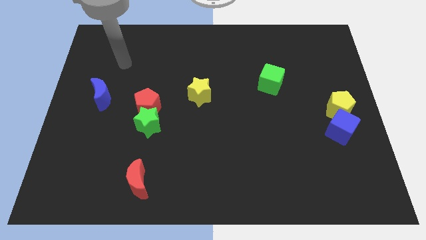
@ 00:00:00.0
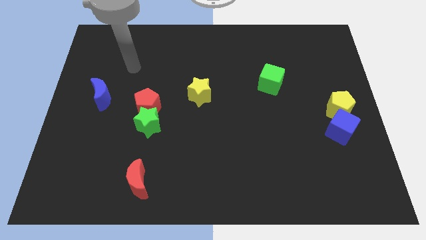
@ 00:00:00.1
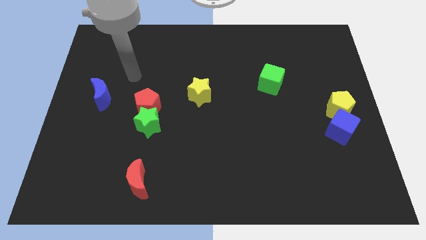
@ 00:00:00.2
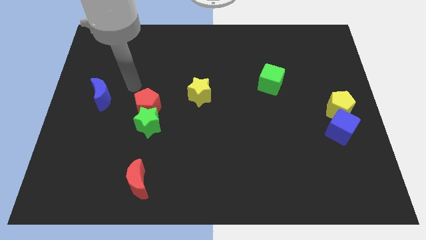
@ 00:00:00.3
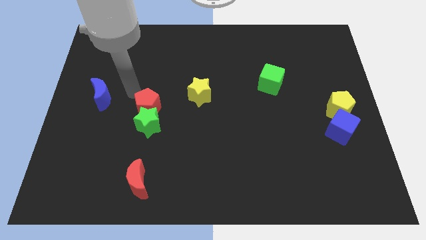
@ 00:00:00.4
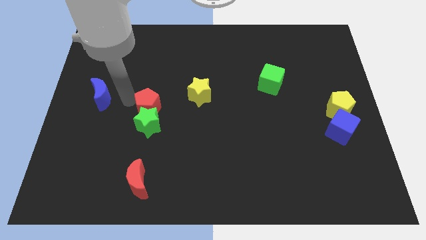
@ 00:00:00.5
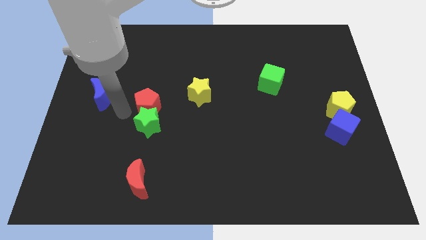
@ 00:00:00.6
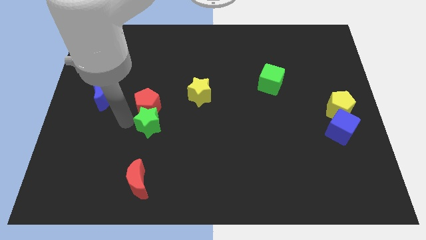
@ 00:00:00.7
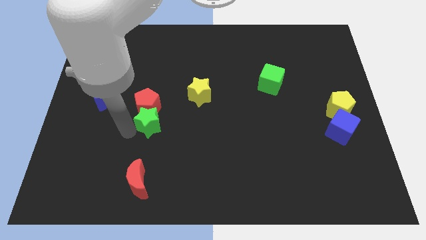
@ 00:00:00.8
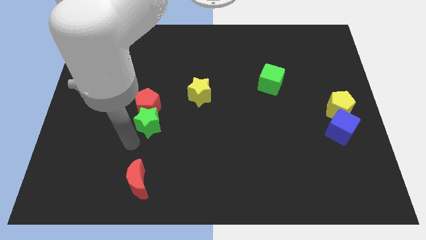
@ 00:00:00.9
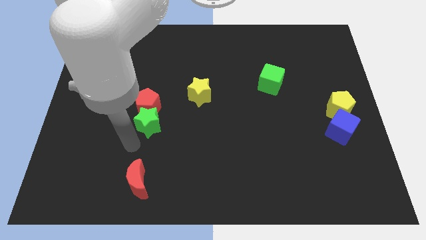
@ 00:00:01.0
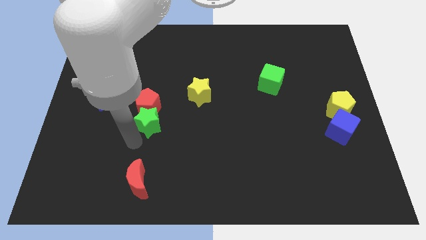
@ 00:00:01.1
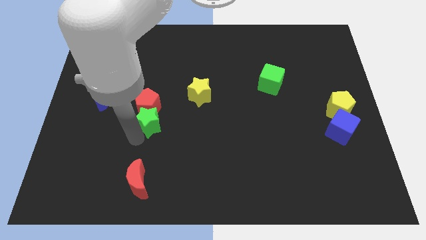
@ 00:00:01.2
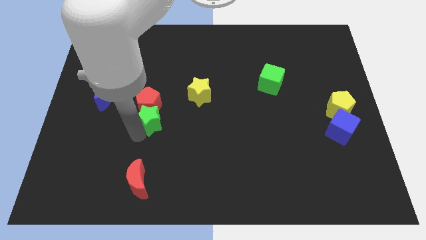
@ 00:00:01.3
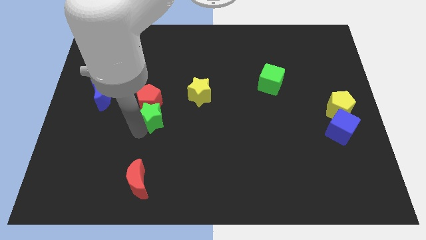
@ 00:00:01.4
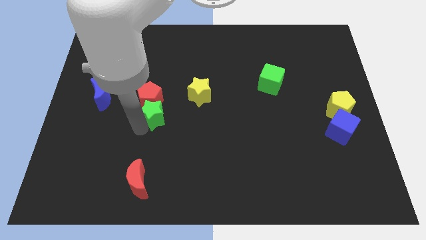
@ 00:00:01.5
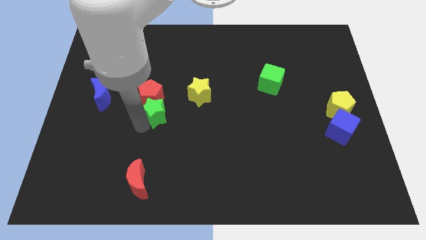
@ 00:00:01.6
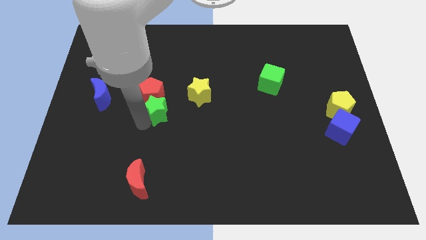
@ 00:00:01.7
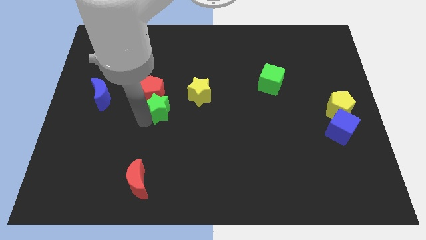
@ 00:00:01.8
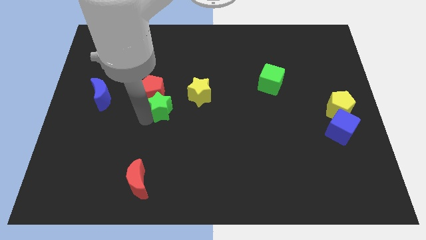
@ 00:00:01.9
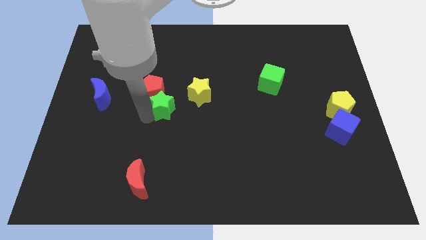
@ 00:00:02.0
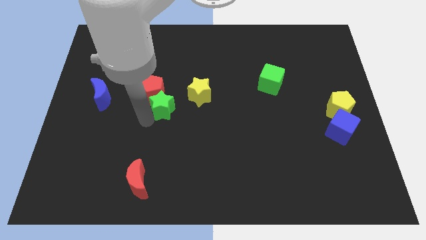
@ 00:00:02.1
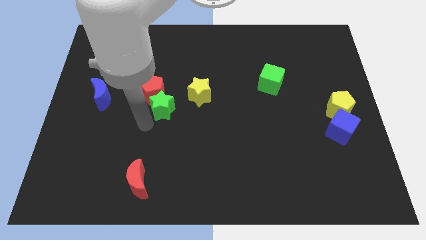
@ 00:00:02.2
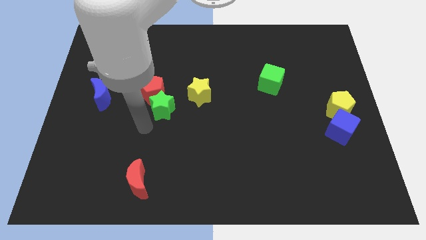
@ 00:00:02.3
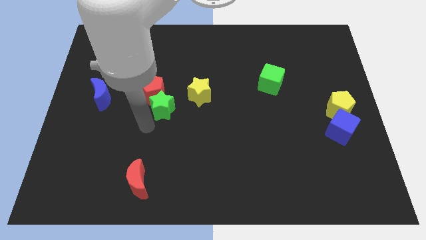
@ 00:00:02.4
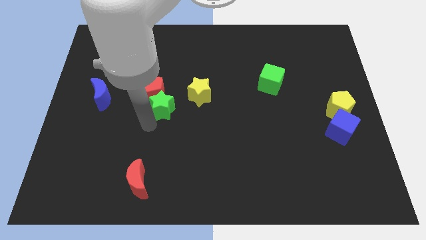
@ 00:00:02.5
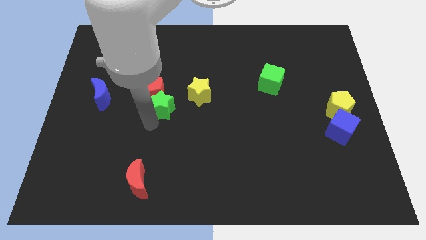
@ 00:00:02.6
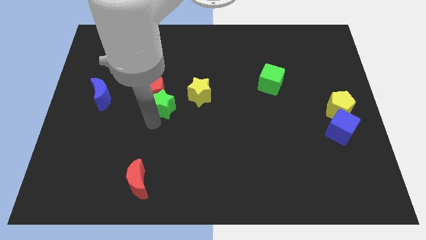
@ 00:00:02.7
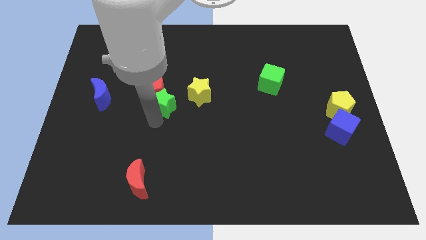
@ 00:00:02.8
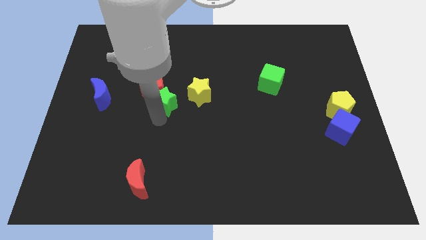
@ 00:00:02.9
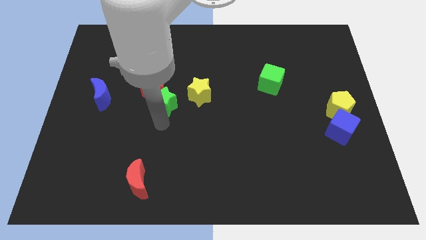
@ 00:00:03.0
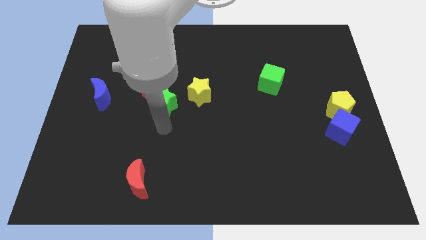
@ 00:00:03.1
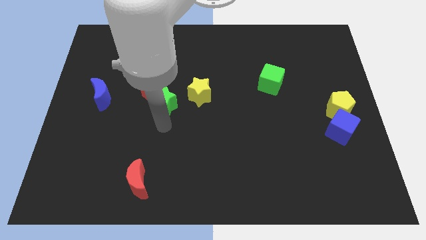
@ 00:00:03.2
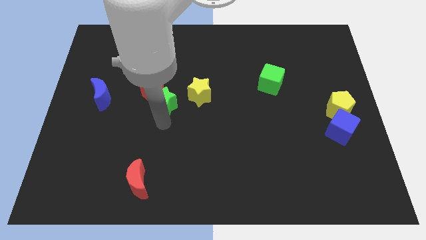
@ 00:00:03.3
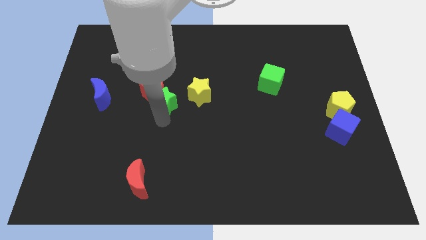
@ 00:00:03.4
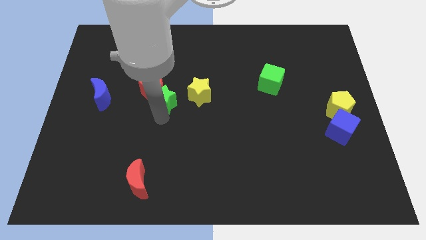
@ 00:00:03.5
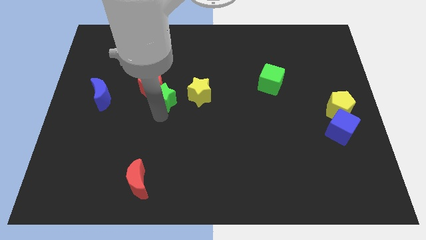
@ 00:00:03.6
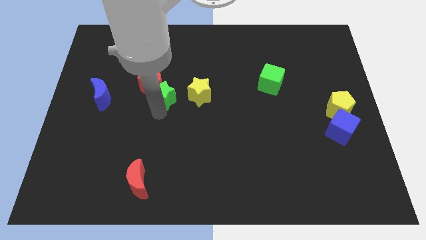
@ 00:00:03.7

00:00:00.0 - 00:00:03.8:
slide the green star up a bit

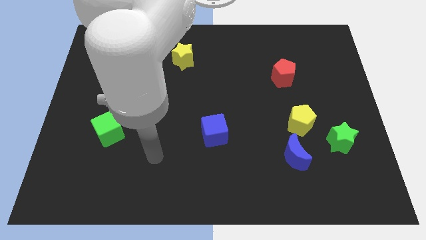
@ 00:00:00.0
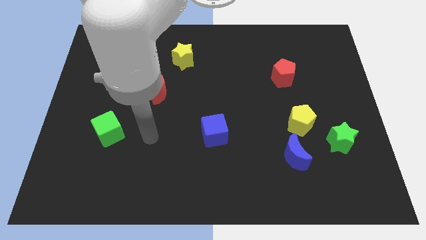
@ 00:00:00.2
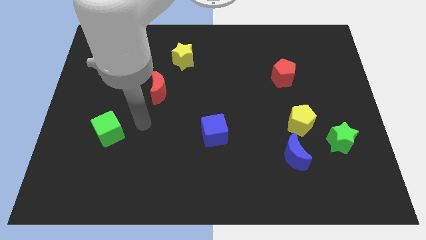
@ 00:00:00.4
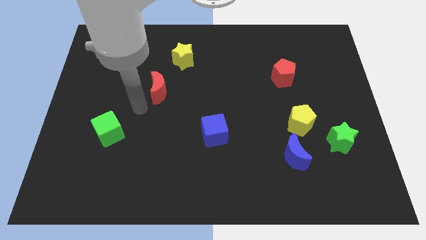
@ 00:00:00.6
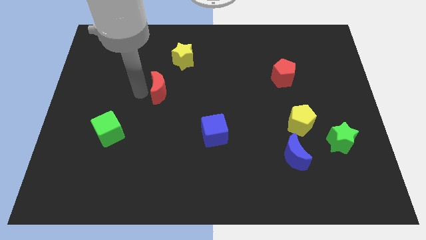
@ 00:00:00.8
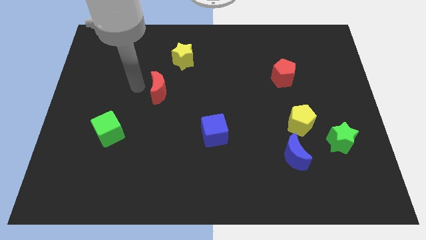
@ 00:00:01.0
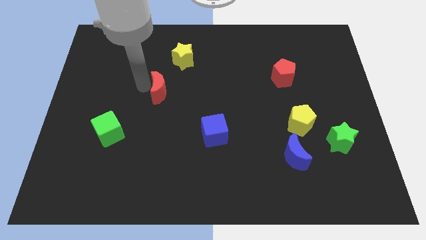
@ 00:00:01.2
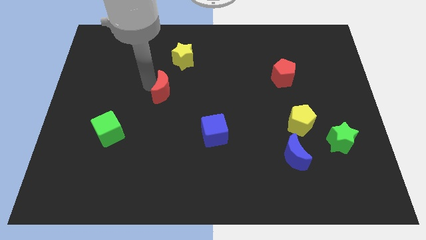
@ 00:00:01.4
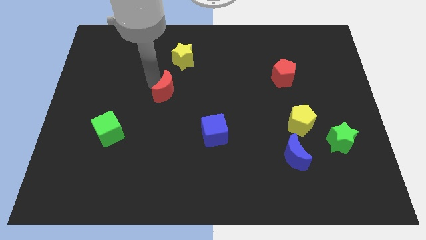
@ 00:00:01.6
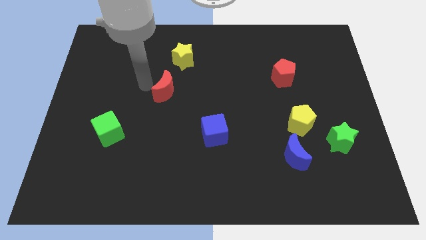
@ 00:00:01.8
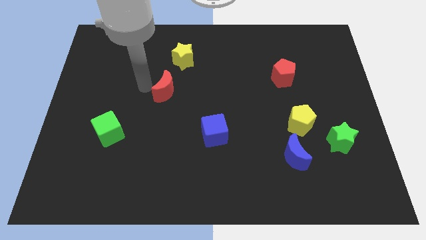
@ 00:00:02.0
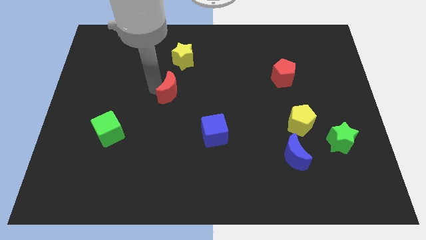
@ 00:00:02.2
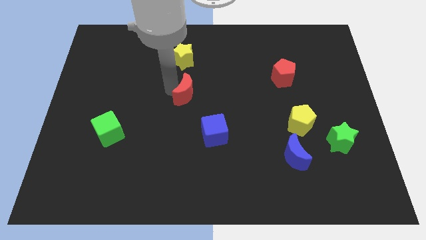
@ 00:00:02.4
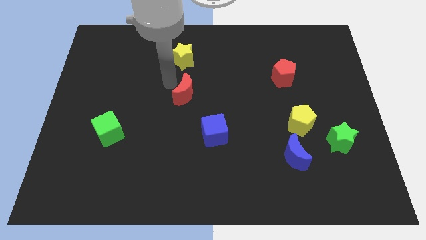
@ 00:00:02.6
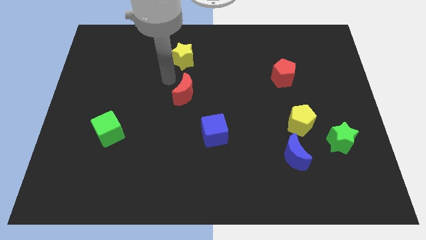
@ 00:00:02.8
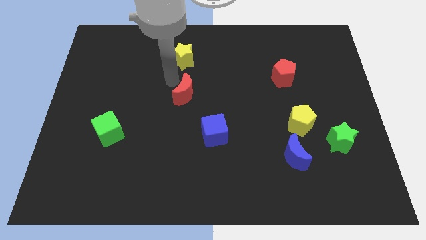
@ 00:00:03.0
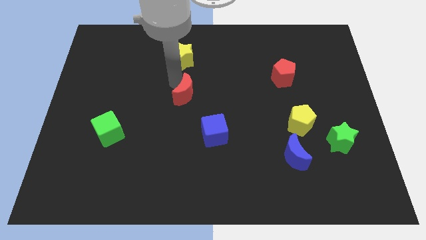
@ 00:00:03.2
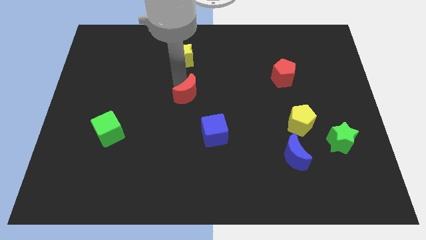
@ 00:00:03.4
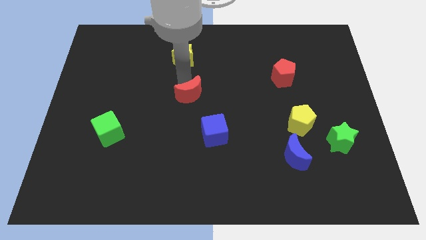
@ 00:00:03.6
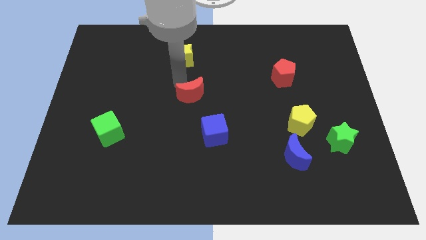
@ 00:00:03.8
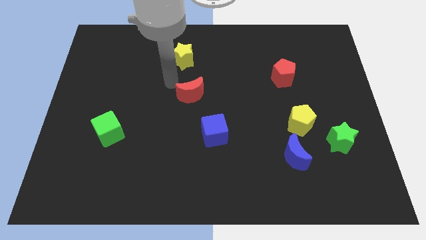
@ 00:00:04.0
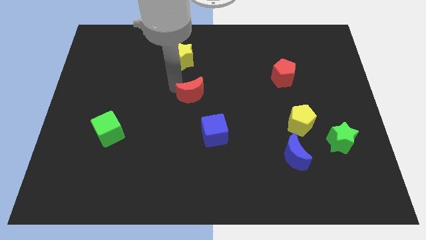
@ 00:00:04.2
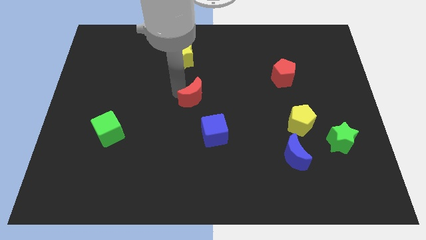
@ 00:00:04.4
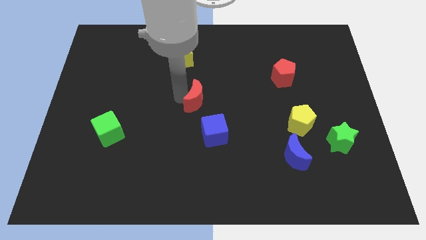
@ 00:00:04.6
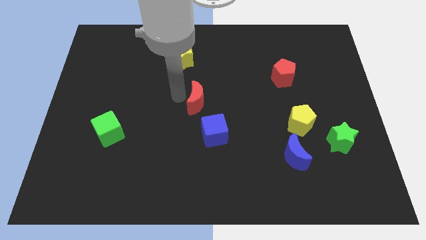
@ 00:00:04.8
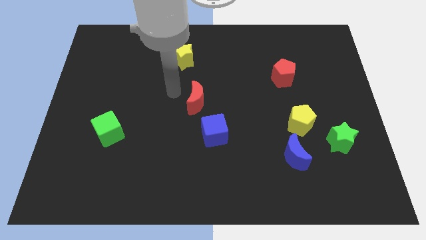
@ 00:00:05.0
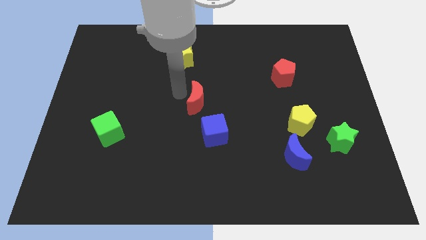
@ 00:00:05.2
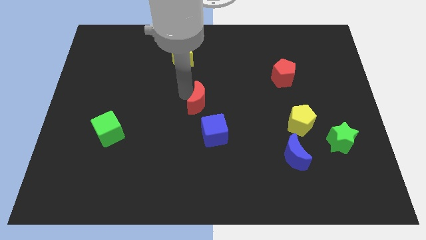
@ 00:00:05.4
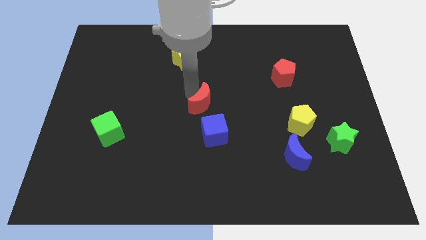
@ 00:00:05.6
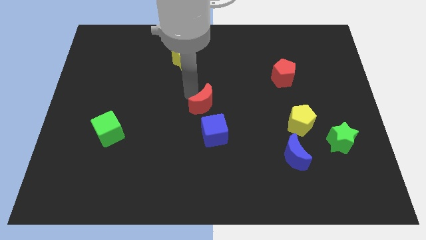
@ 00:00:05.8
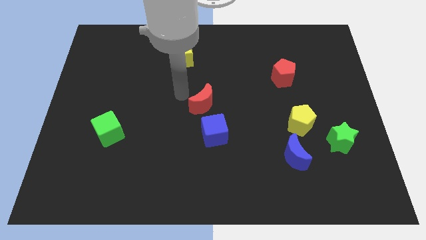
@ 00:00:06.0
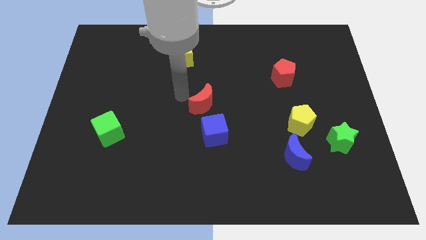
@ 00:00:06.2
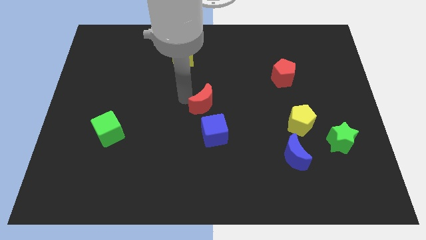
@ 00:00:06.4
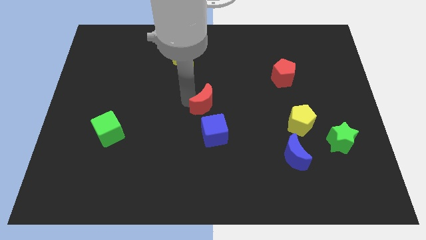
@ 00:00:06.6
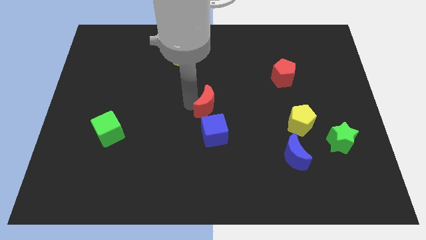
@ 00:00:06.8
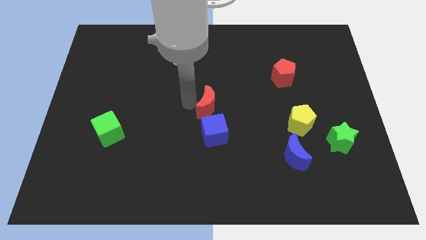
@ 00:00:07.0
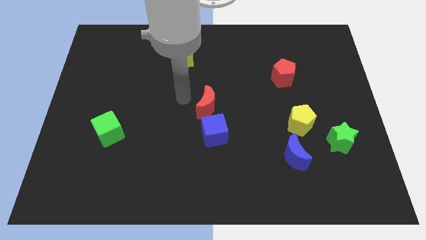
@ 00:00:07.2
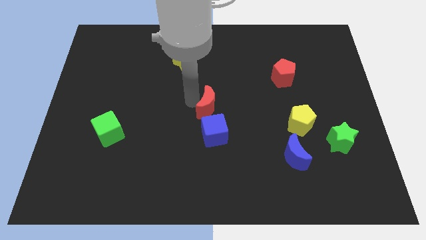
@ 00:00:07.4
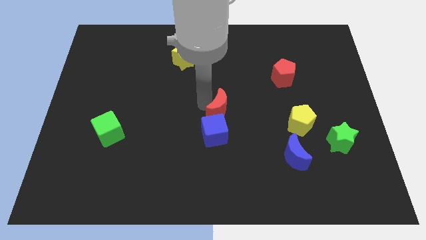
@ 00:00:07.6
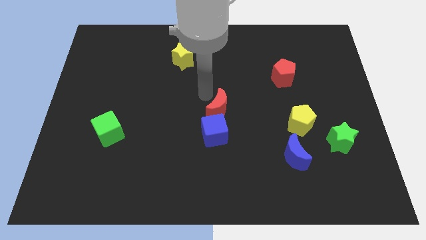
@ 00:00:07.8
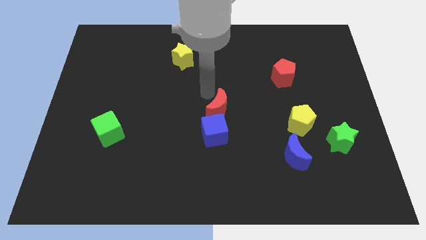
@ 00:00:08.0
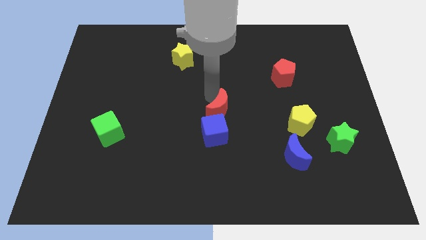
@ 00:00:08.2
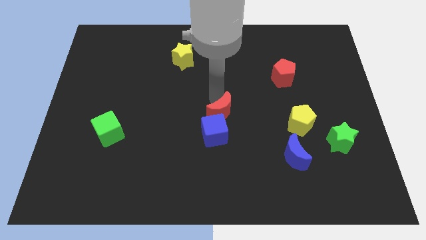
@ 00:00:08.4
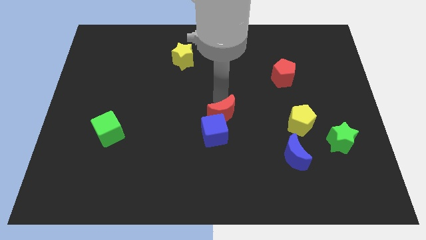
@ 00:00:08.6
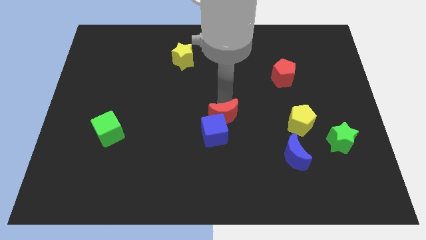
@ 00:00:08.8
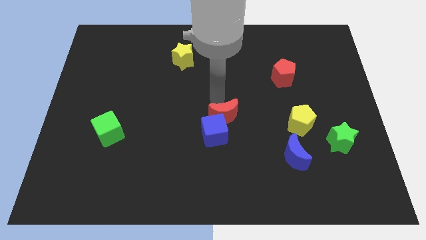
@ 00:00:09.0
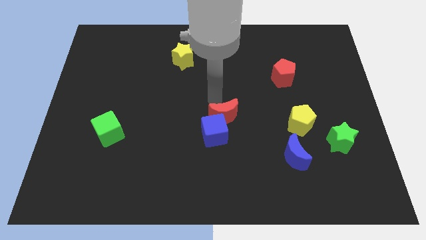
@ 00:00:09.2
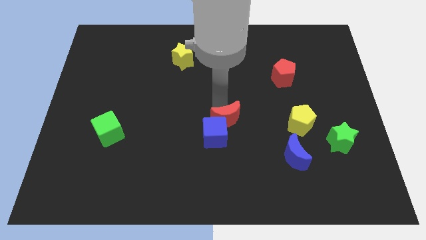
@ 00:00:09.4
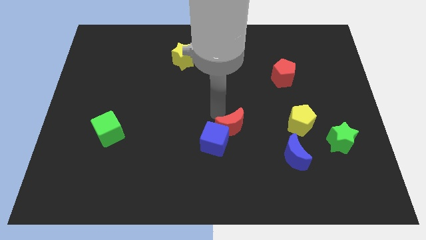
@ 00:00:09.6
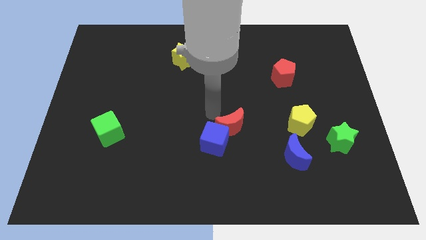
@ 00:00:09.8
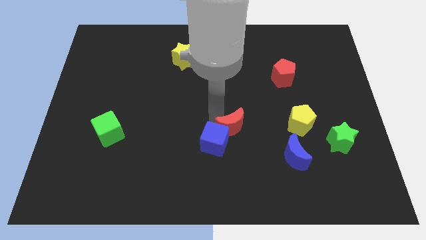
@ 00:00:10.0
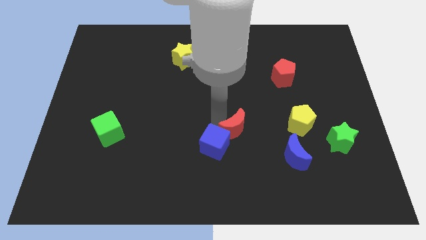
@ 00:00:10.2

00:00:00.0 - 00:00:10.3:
push the red moon diagonally down and right
